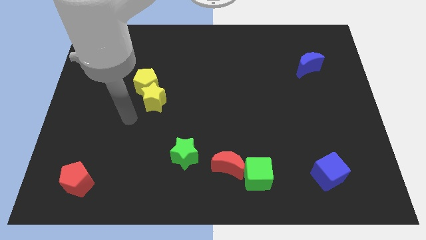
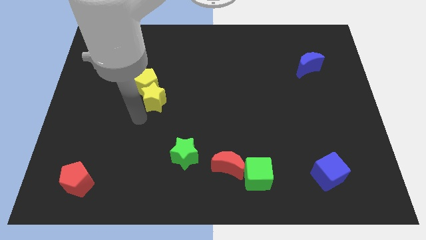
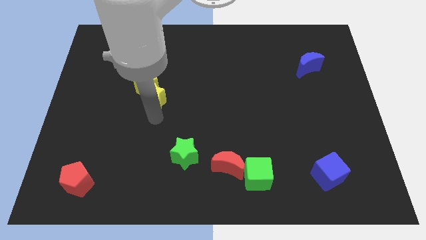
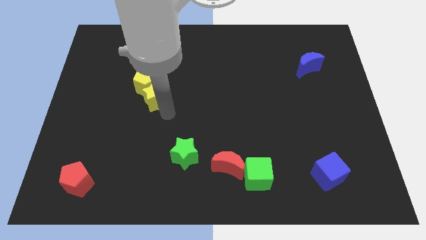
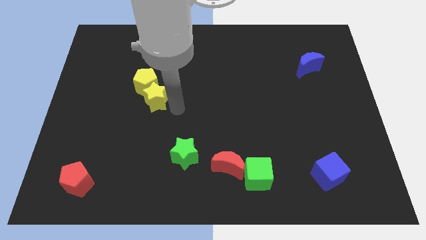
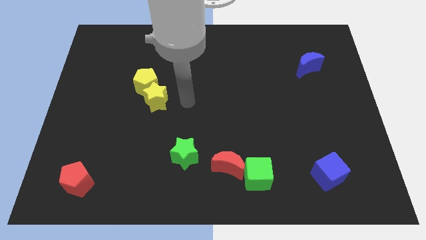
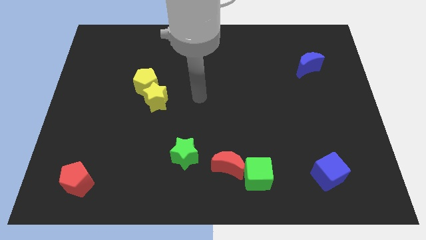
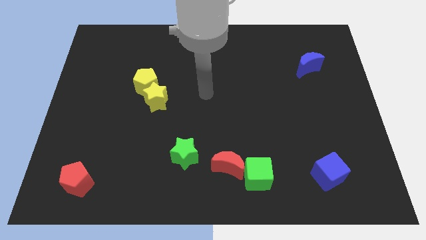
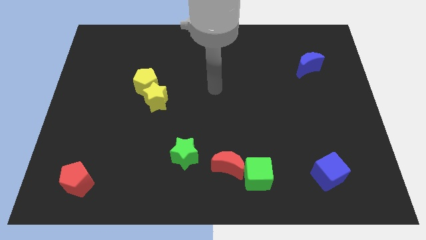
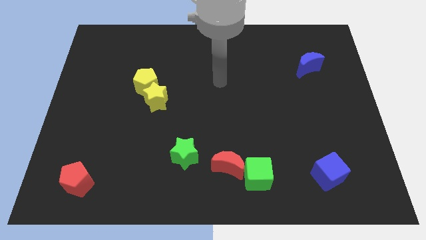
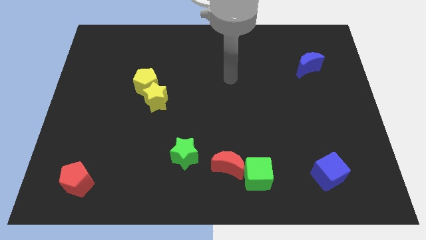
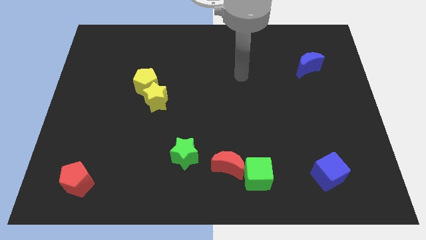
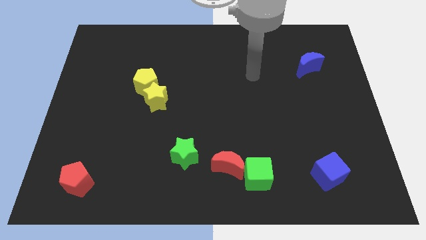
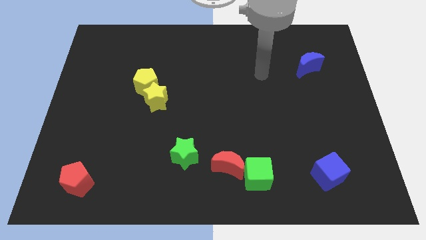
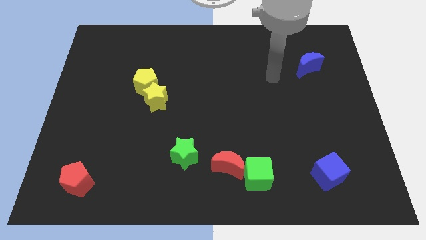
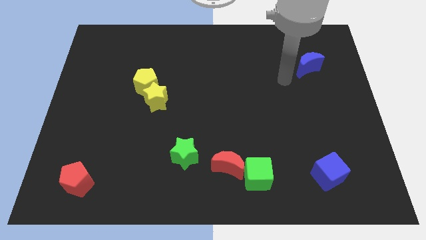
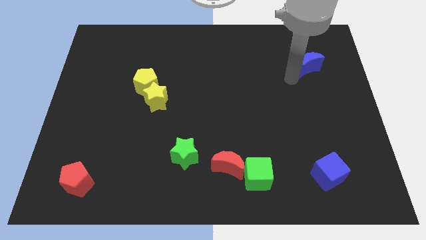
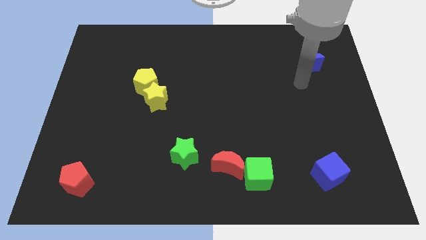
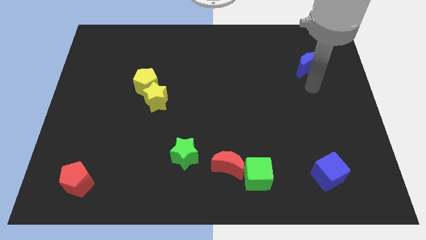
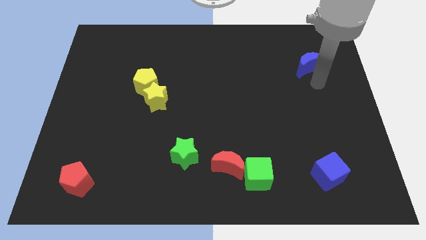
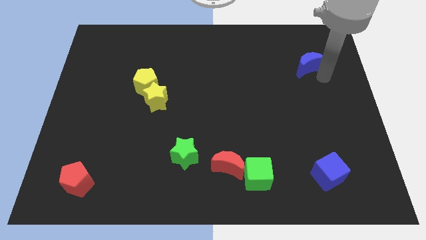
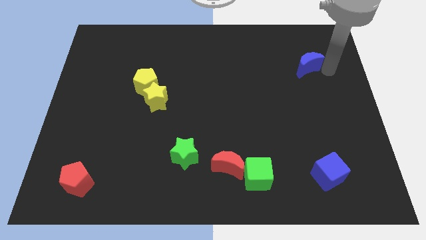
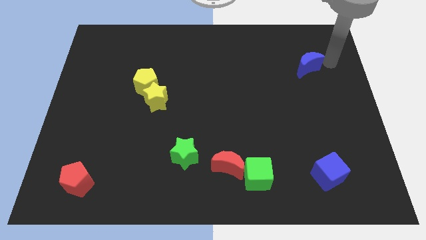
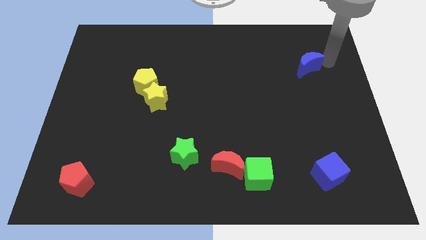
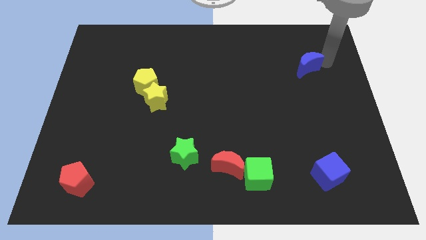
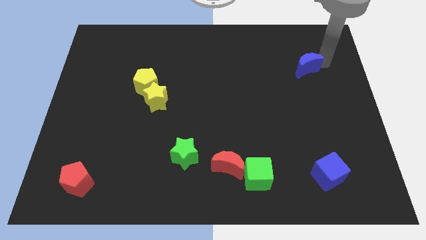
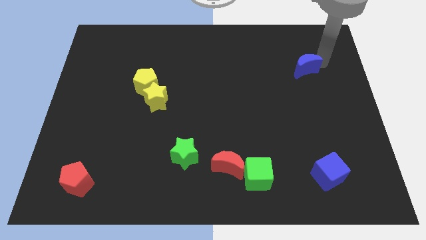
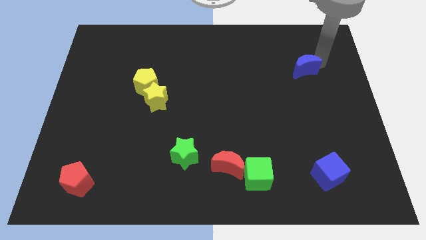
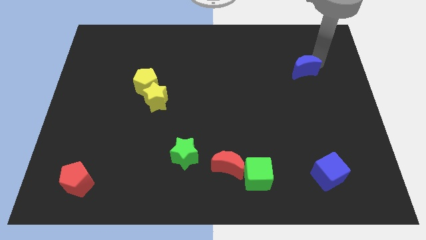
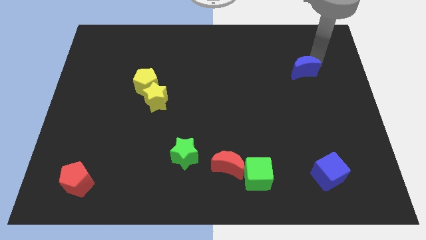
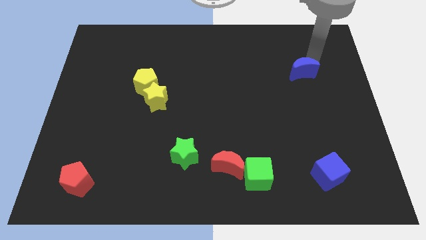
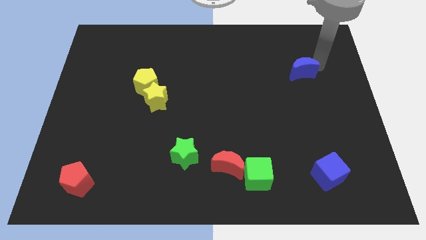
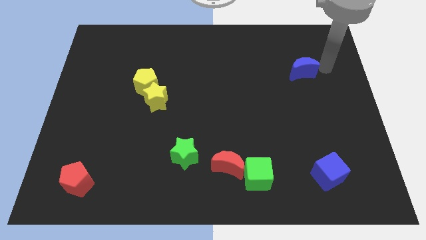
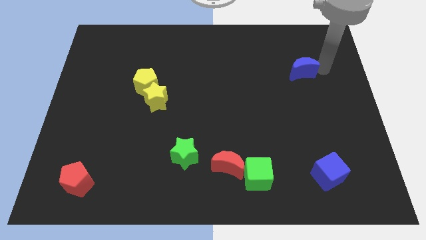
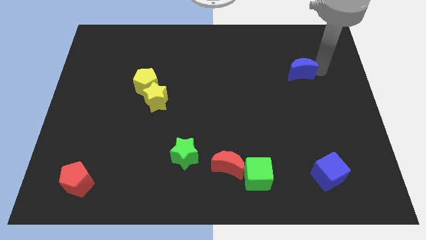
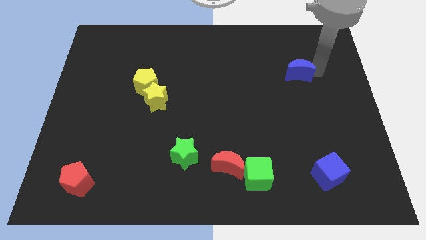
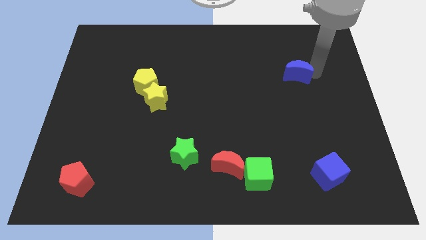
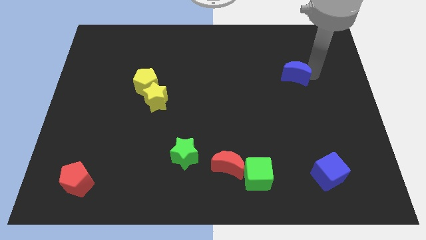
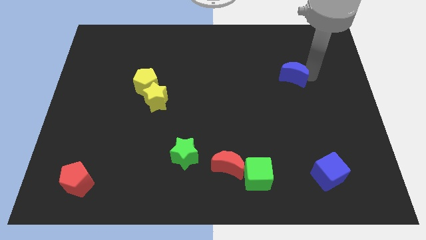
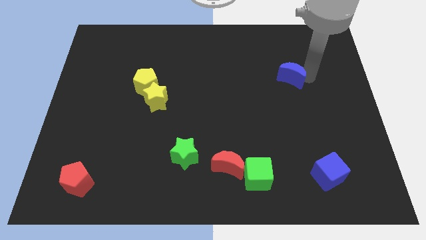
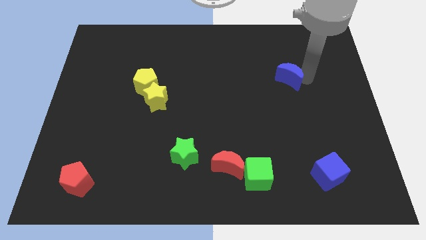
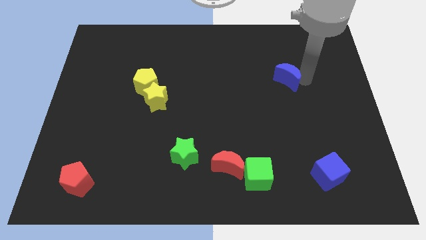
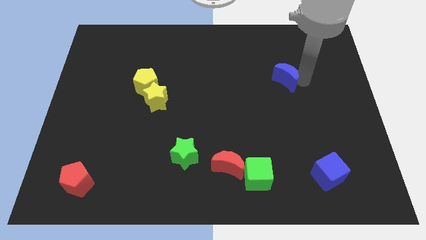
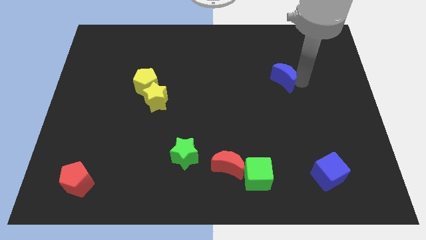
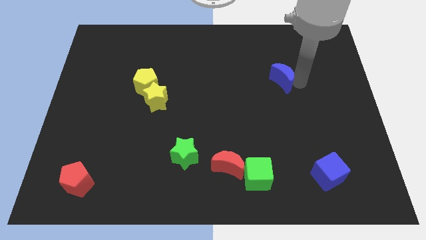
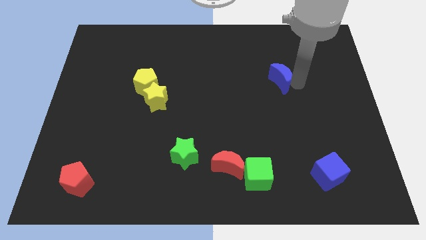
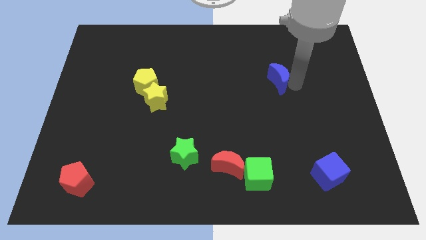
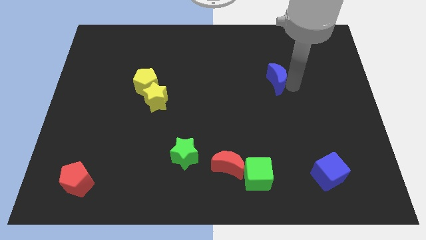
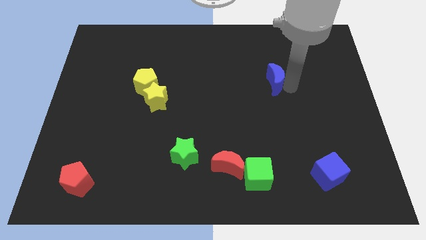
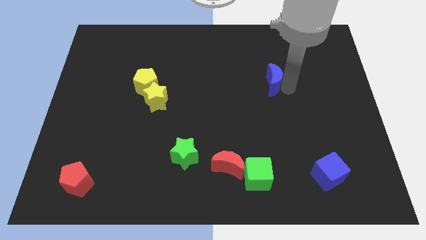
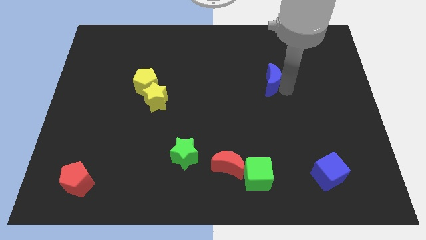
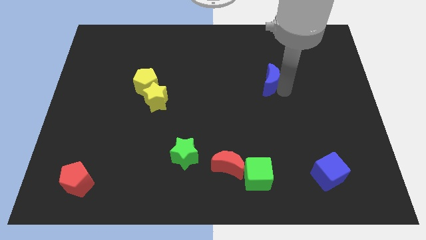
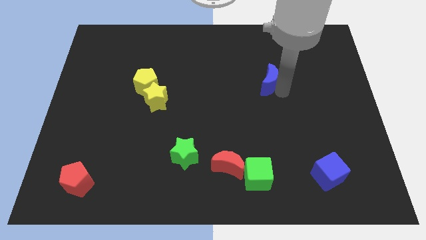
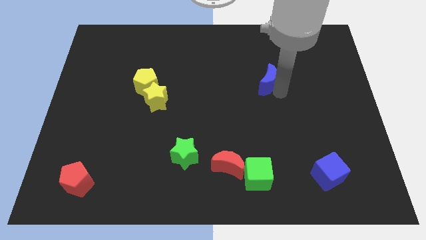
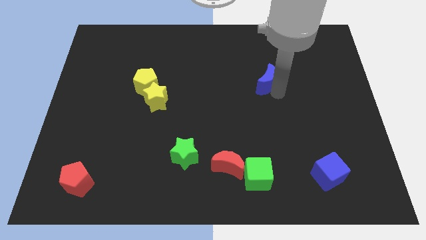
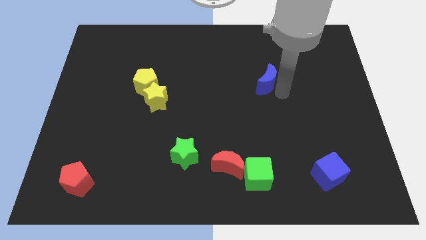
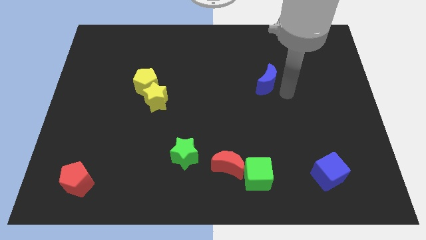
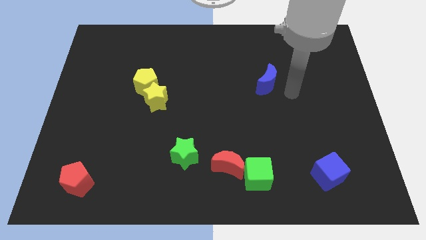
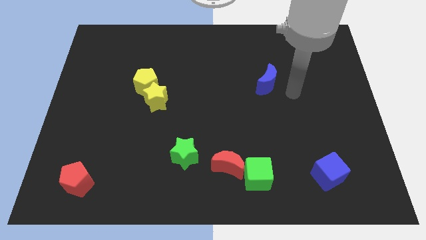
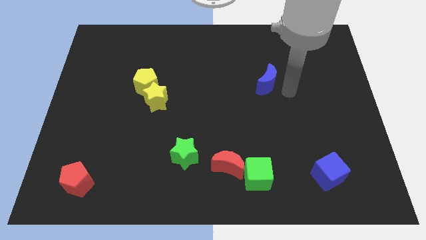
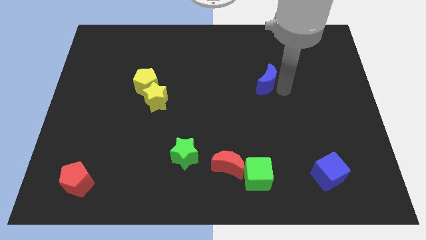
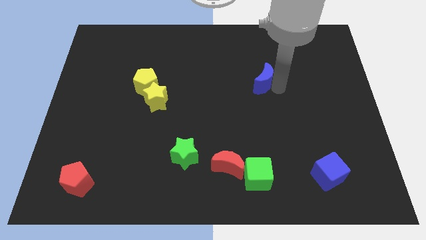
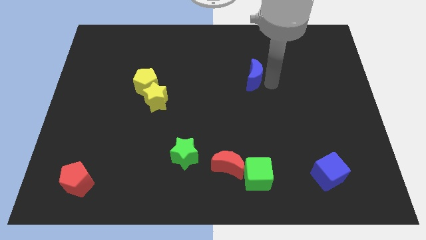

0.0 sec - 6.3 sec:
slide the blue moon to the center of the board
